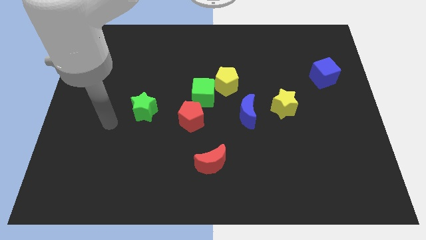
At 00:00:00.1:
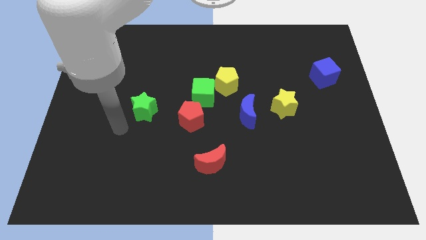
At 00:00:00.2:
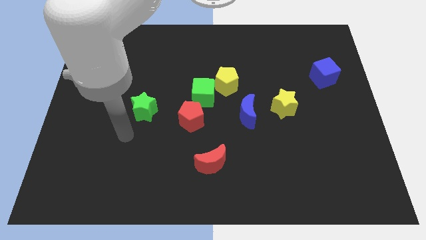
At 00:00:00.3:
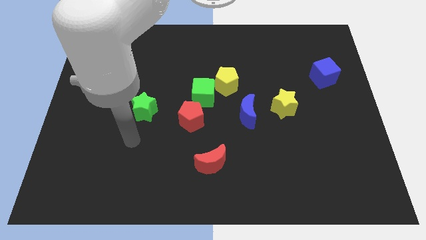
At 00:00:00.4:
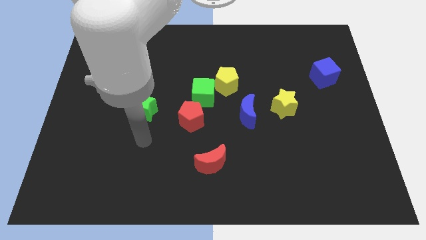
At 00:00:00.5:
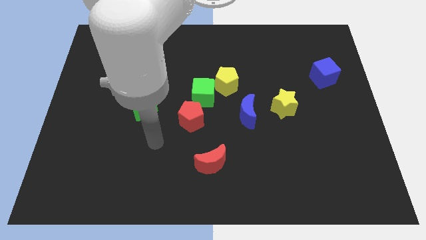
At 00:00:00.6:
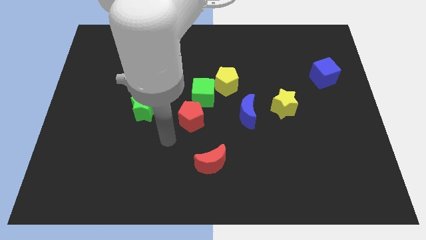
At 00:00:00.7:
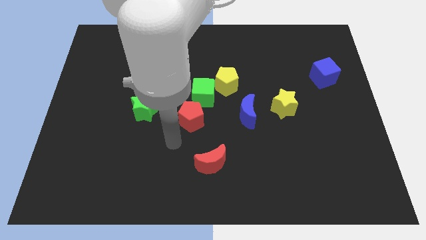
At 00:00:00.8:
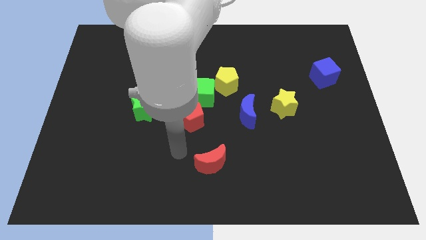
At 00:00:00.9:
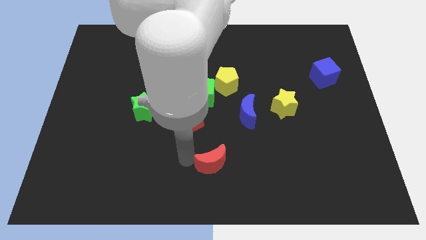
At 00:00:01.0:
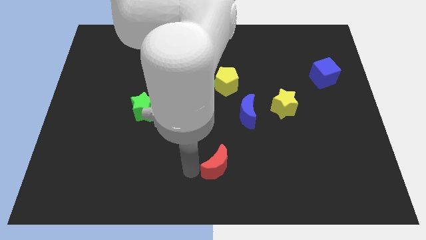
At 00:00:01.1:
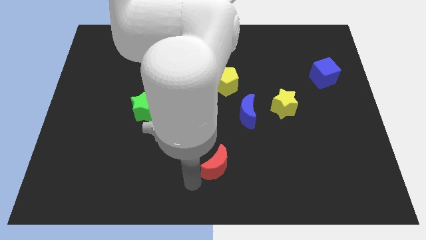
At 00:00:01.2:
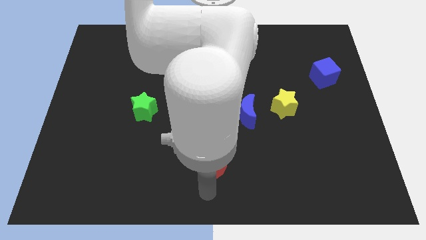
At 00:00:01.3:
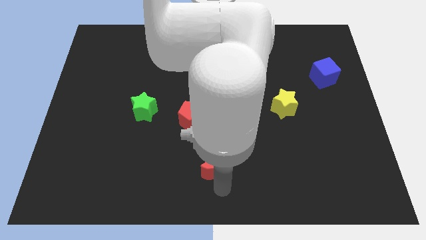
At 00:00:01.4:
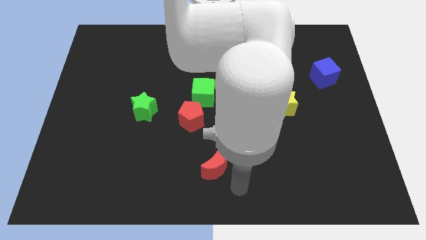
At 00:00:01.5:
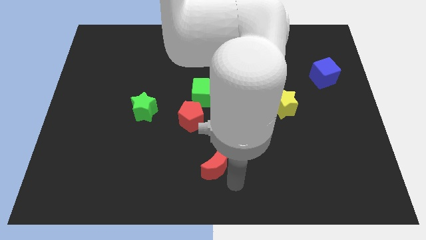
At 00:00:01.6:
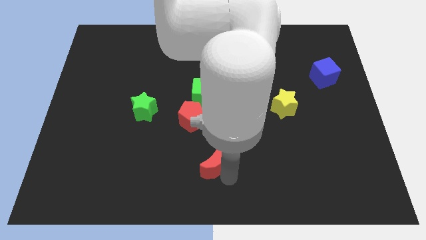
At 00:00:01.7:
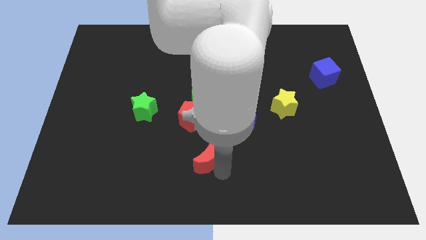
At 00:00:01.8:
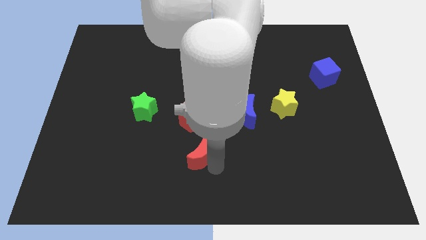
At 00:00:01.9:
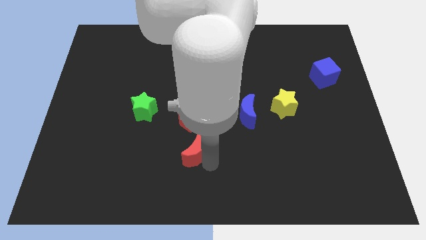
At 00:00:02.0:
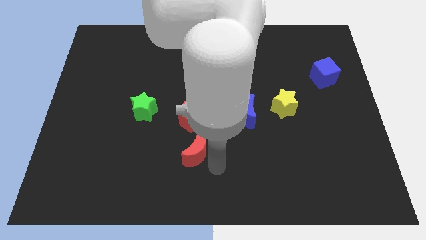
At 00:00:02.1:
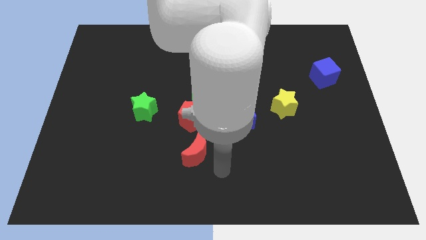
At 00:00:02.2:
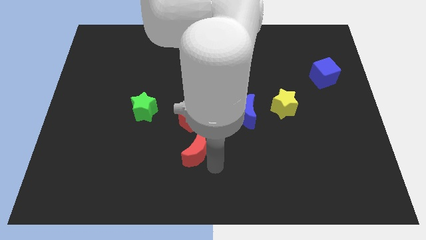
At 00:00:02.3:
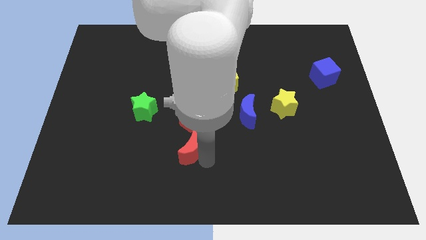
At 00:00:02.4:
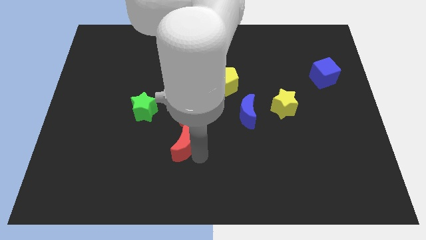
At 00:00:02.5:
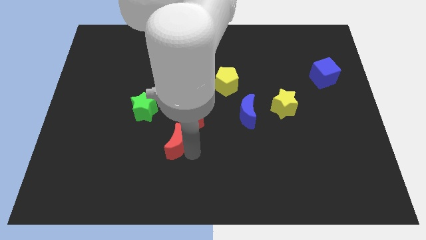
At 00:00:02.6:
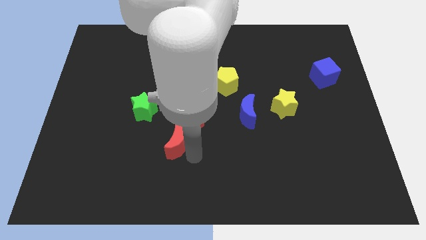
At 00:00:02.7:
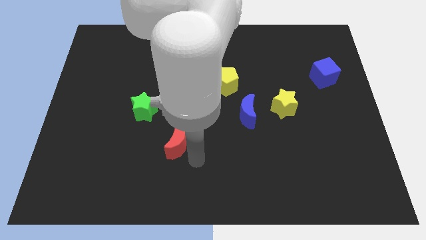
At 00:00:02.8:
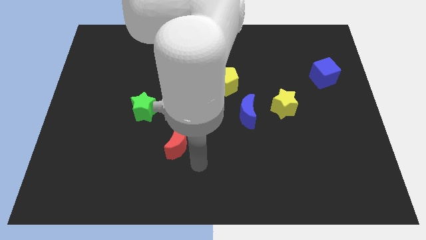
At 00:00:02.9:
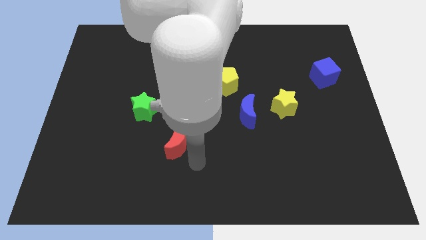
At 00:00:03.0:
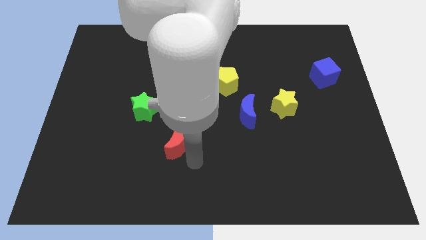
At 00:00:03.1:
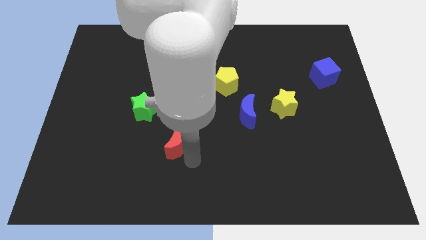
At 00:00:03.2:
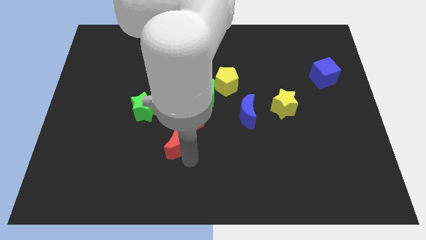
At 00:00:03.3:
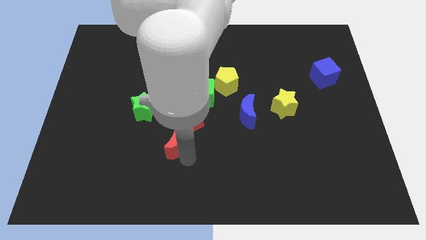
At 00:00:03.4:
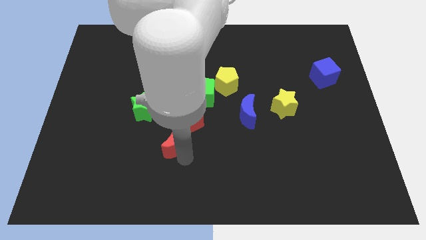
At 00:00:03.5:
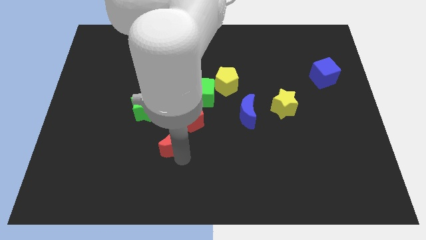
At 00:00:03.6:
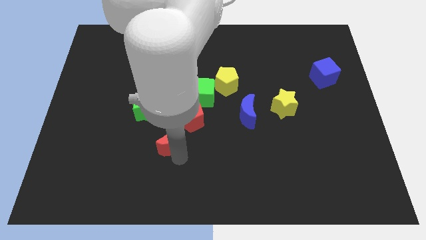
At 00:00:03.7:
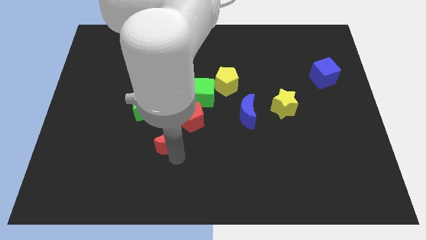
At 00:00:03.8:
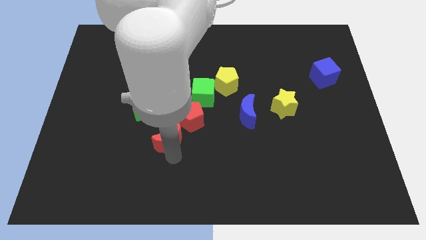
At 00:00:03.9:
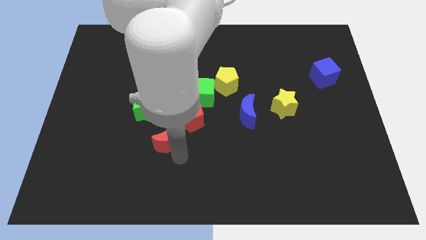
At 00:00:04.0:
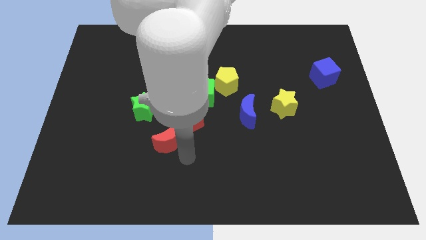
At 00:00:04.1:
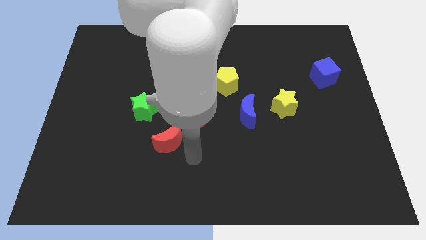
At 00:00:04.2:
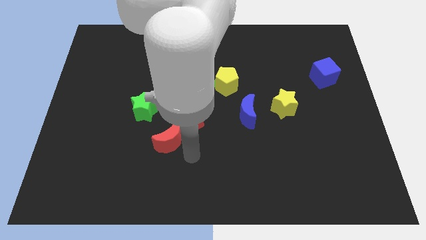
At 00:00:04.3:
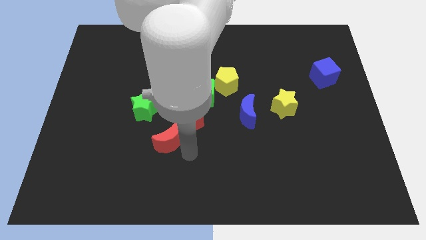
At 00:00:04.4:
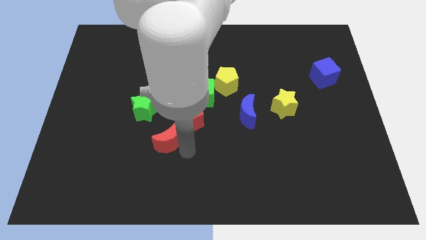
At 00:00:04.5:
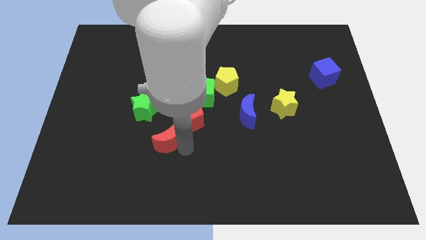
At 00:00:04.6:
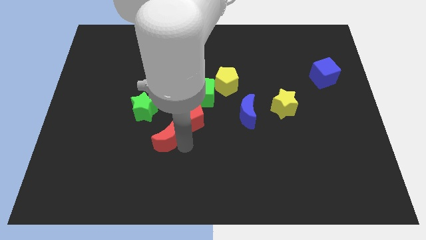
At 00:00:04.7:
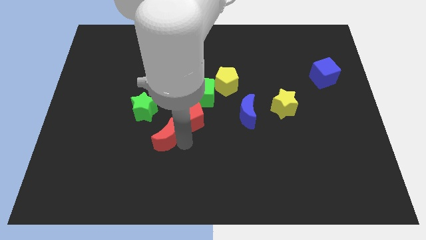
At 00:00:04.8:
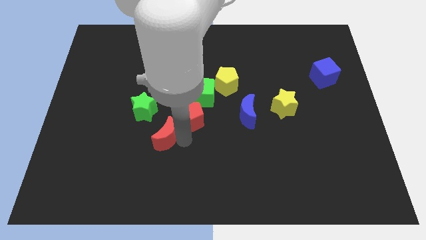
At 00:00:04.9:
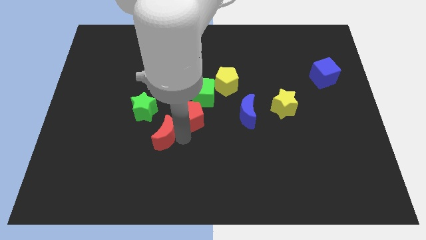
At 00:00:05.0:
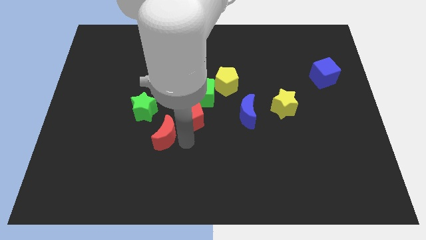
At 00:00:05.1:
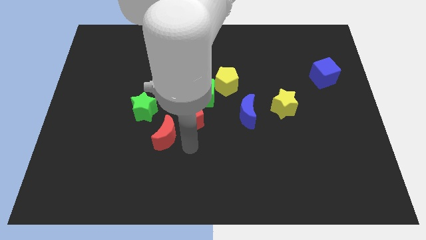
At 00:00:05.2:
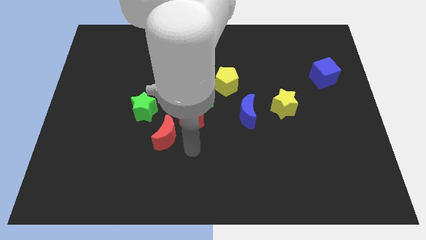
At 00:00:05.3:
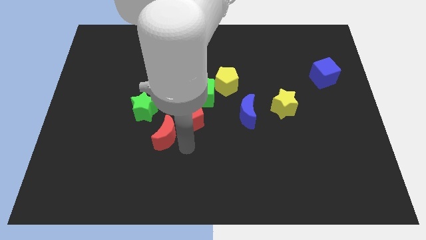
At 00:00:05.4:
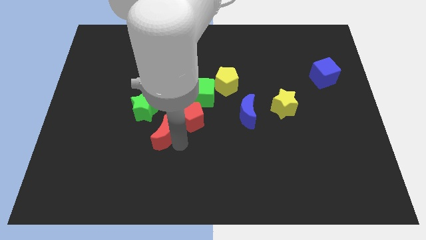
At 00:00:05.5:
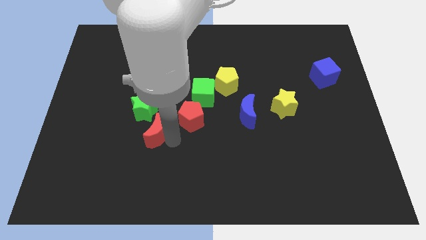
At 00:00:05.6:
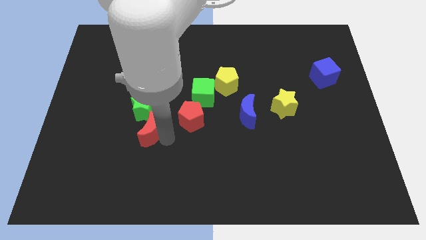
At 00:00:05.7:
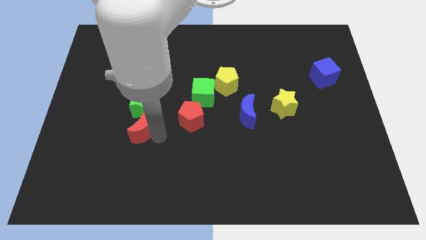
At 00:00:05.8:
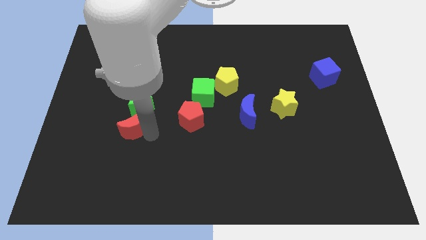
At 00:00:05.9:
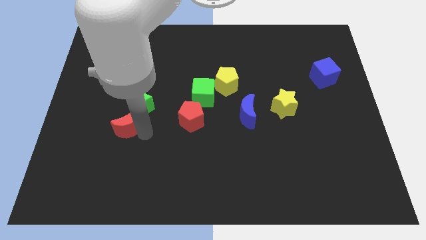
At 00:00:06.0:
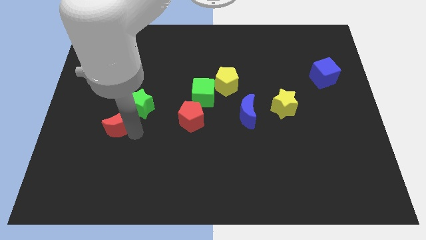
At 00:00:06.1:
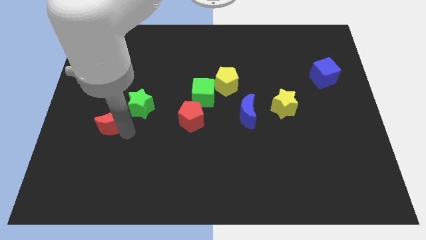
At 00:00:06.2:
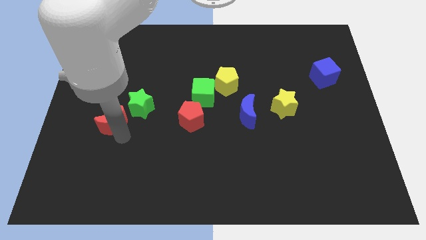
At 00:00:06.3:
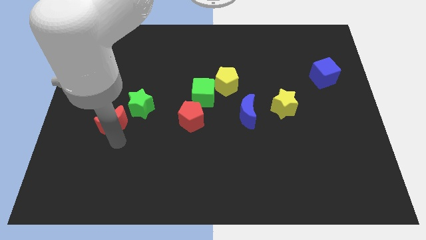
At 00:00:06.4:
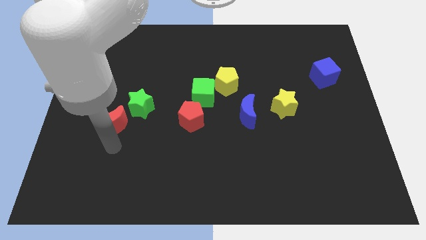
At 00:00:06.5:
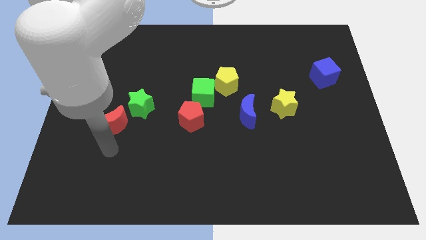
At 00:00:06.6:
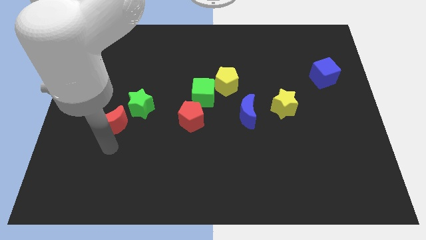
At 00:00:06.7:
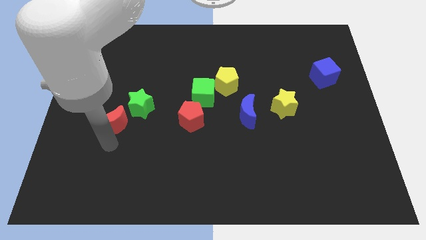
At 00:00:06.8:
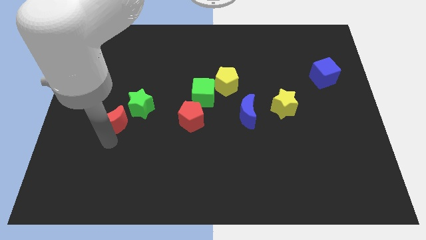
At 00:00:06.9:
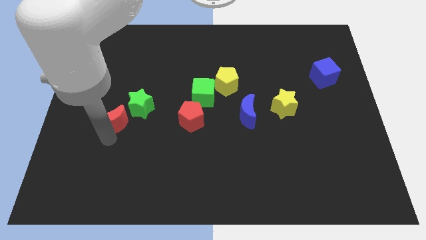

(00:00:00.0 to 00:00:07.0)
slide the red moon upwards and to the left

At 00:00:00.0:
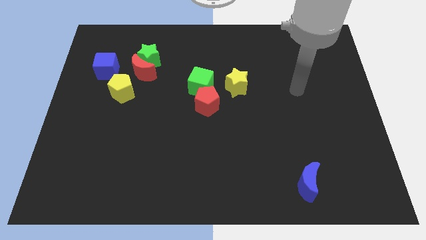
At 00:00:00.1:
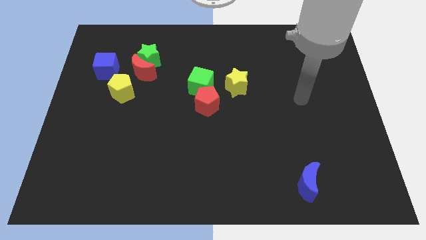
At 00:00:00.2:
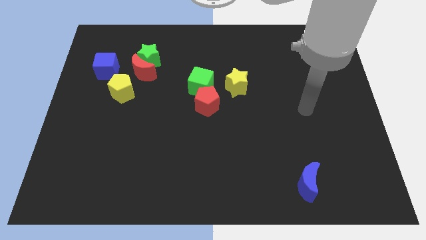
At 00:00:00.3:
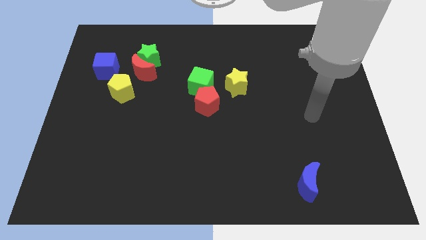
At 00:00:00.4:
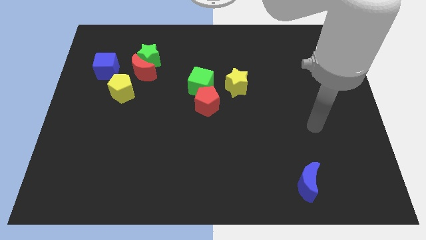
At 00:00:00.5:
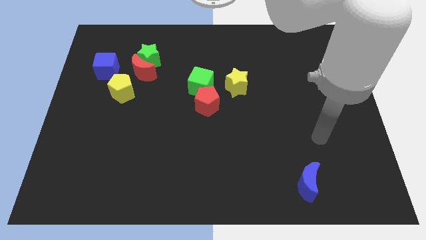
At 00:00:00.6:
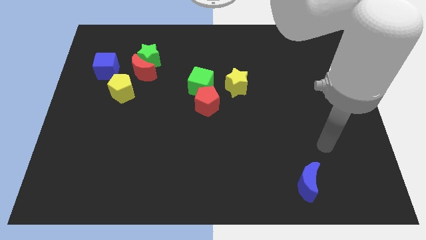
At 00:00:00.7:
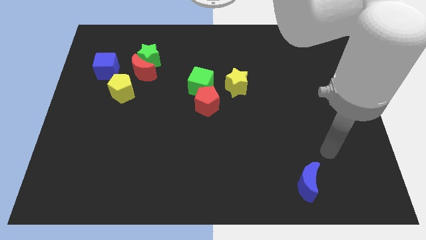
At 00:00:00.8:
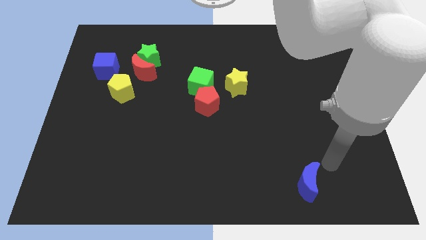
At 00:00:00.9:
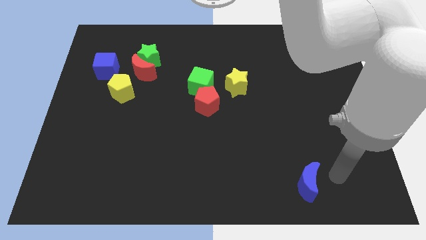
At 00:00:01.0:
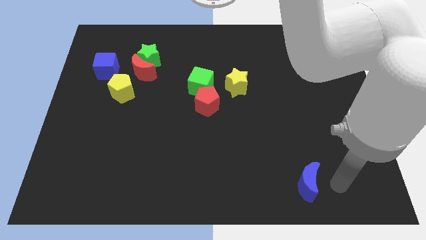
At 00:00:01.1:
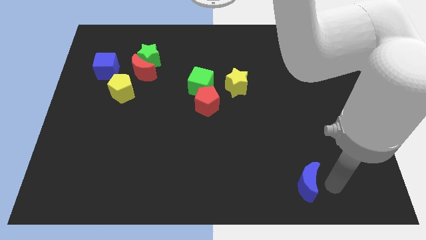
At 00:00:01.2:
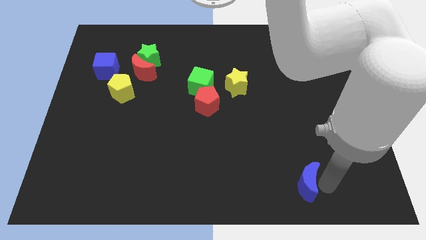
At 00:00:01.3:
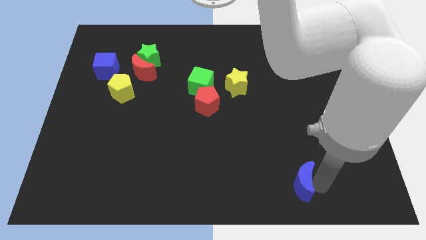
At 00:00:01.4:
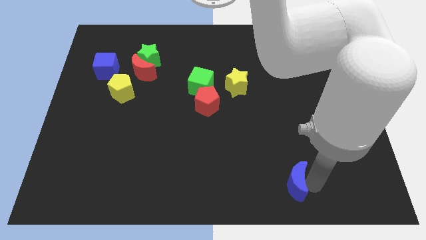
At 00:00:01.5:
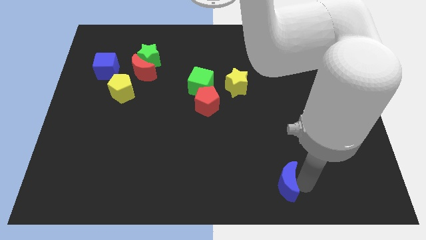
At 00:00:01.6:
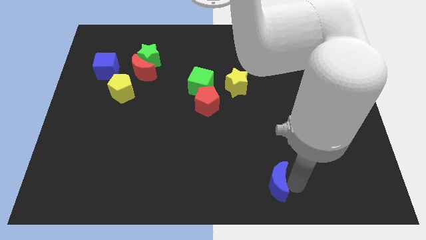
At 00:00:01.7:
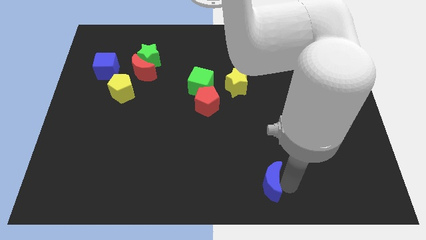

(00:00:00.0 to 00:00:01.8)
slide the blue moon to the left a little
